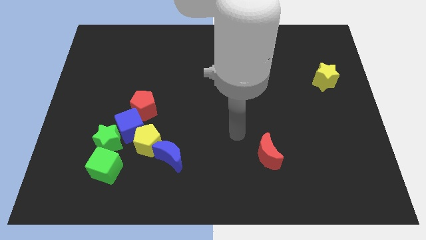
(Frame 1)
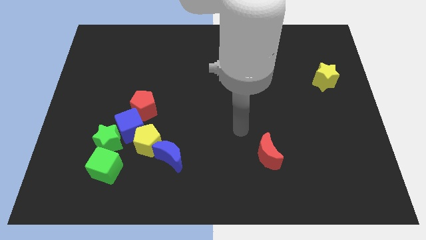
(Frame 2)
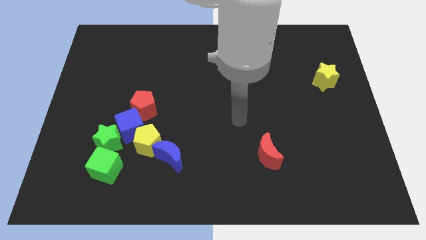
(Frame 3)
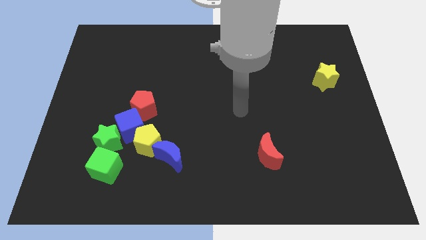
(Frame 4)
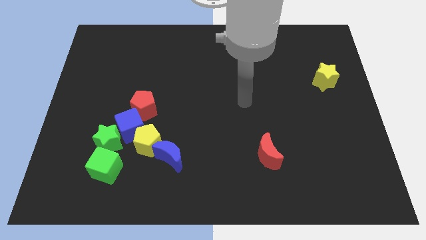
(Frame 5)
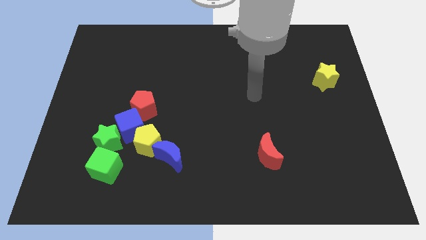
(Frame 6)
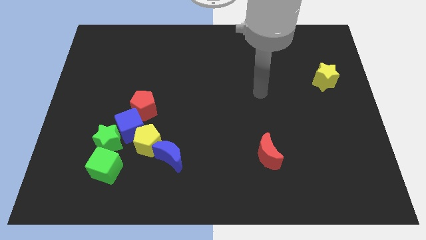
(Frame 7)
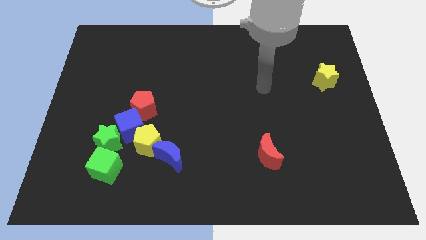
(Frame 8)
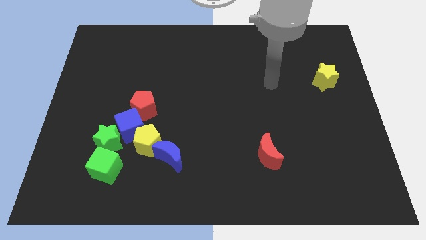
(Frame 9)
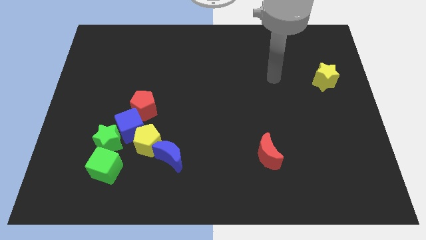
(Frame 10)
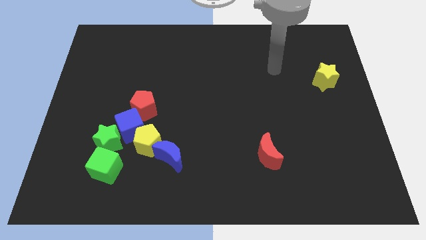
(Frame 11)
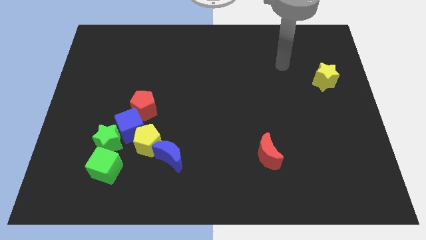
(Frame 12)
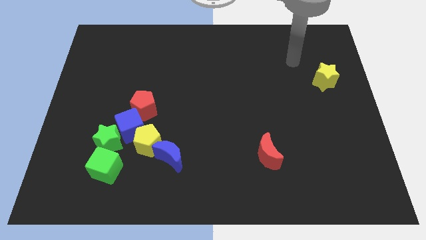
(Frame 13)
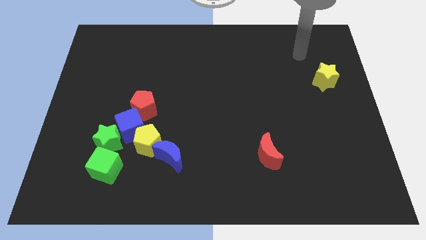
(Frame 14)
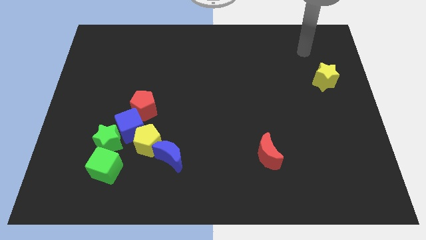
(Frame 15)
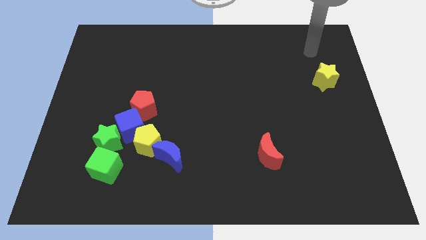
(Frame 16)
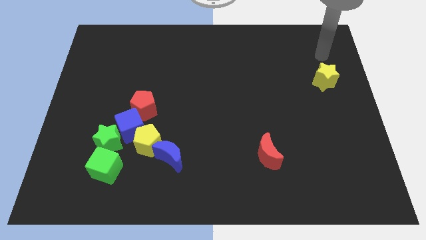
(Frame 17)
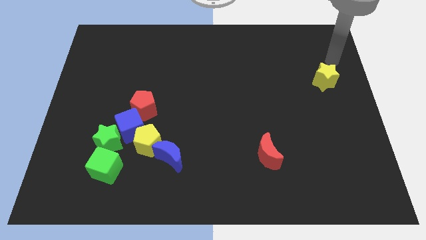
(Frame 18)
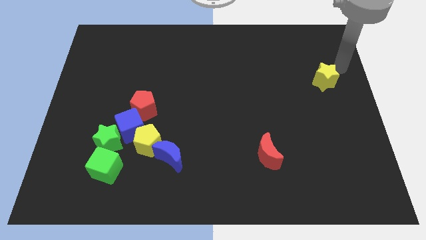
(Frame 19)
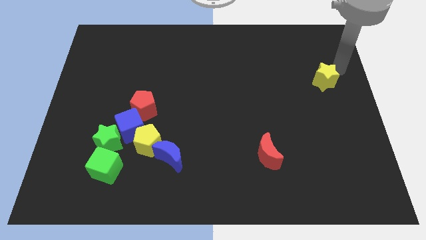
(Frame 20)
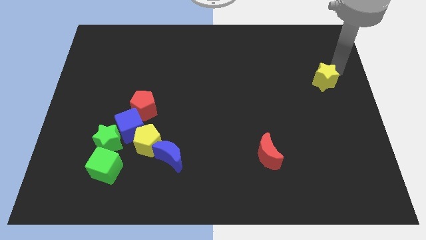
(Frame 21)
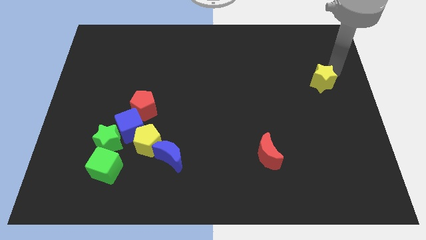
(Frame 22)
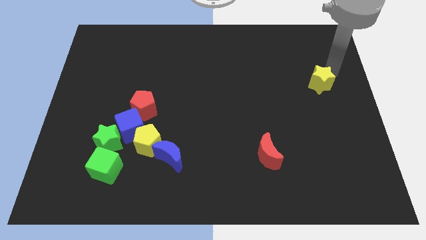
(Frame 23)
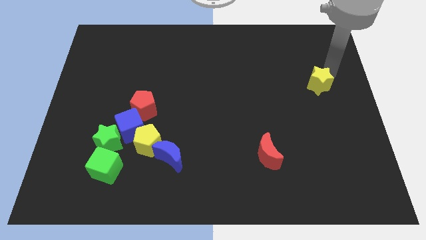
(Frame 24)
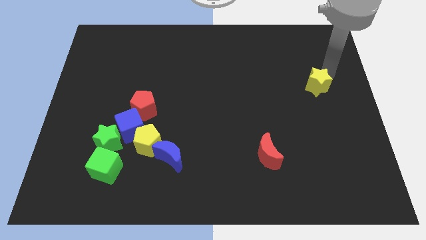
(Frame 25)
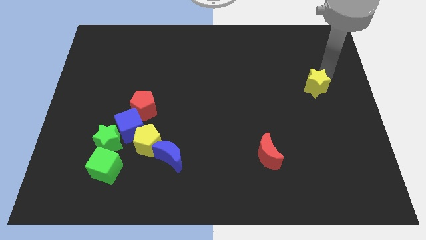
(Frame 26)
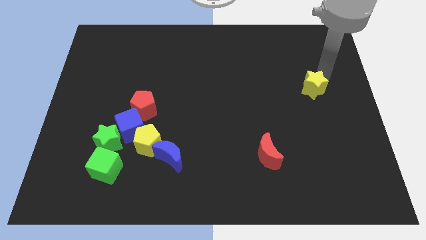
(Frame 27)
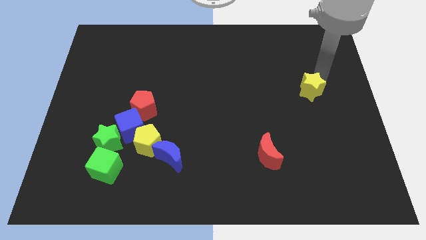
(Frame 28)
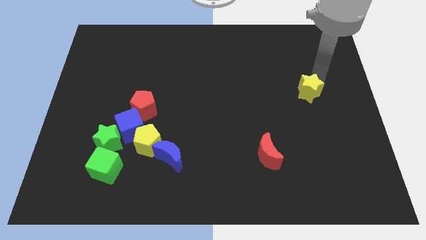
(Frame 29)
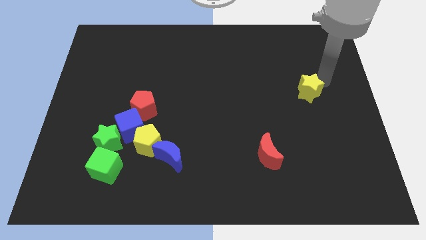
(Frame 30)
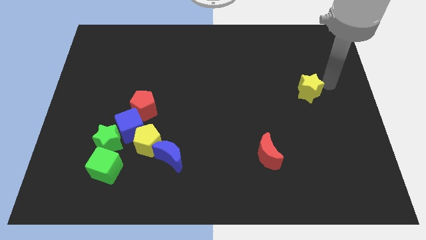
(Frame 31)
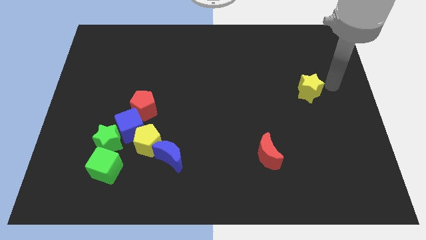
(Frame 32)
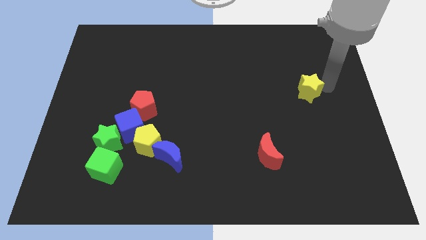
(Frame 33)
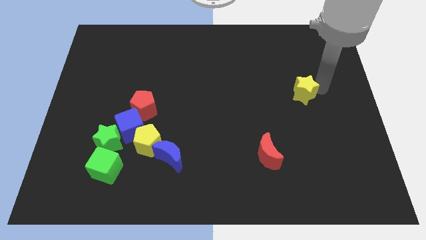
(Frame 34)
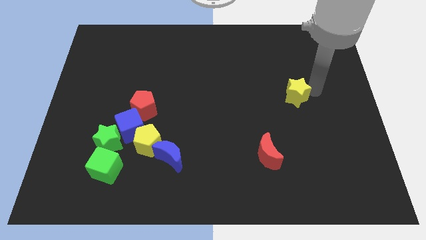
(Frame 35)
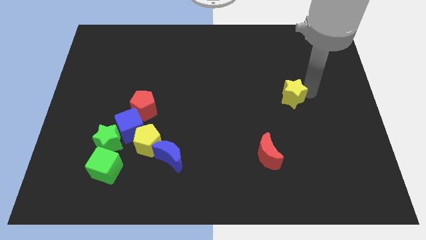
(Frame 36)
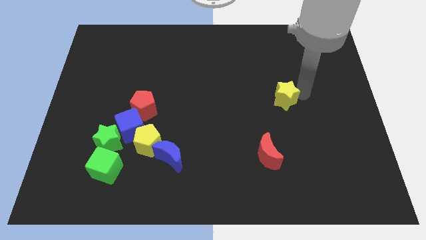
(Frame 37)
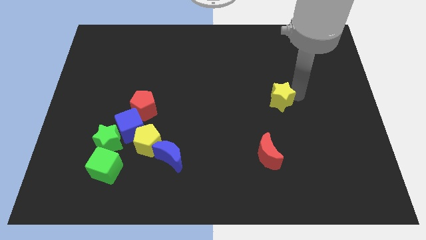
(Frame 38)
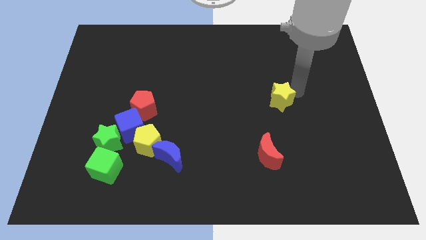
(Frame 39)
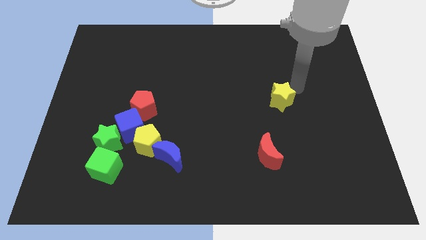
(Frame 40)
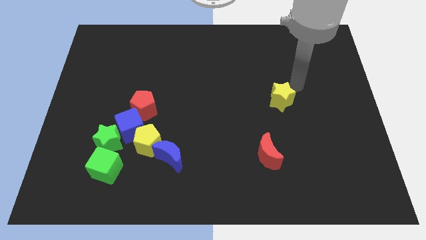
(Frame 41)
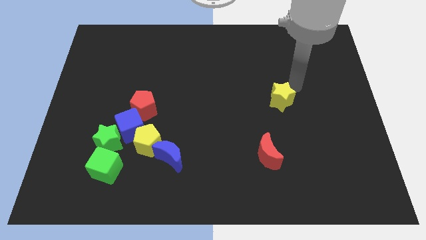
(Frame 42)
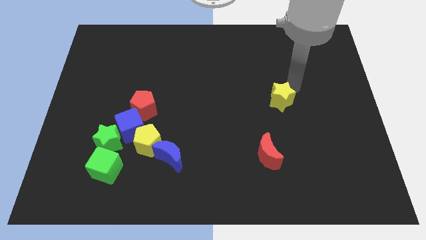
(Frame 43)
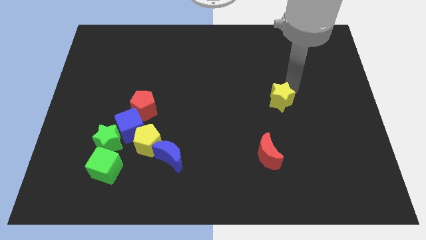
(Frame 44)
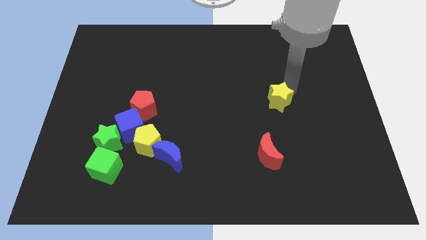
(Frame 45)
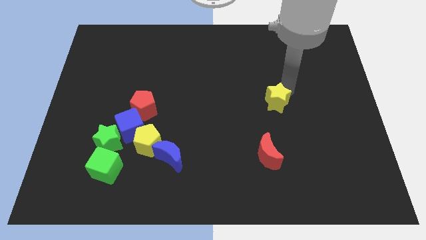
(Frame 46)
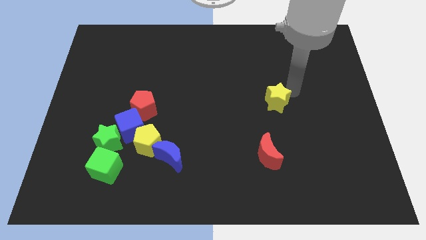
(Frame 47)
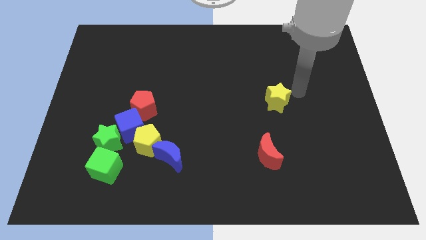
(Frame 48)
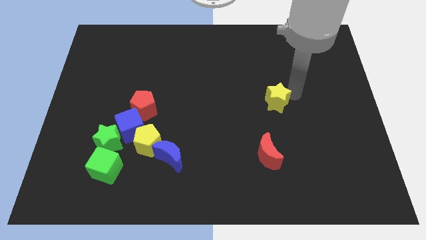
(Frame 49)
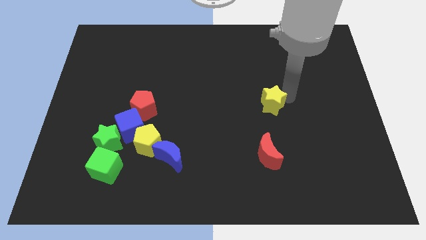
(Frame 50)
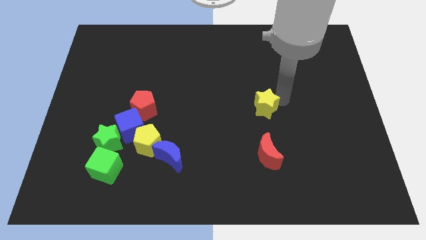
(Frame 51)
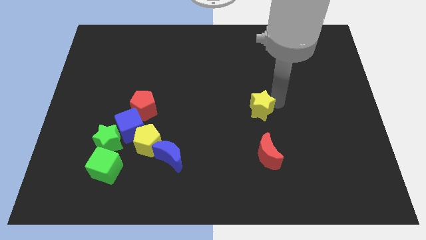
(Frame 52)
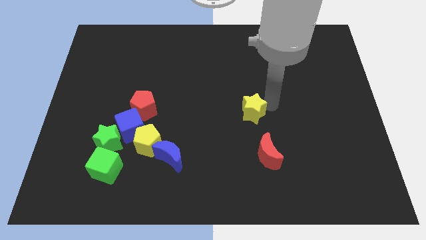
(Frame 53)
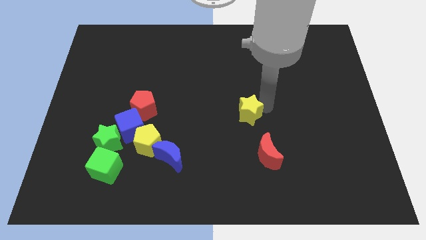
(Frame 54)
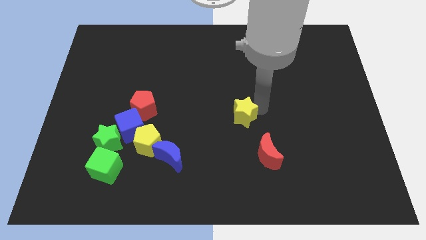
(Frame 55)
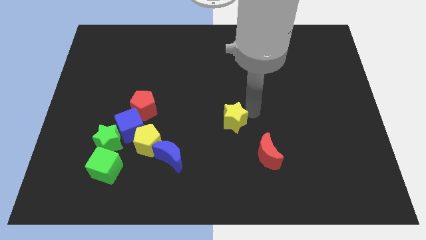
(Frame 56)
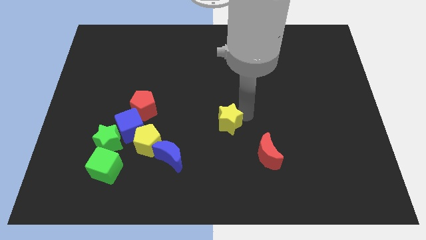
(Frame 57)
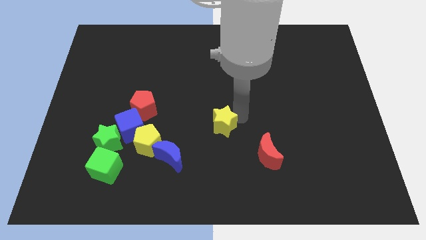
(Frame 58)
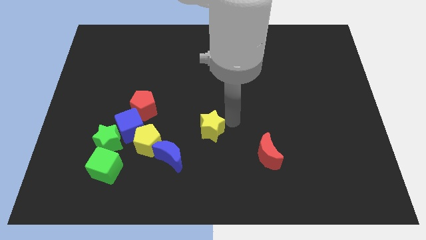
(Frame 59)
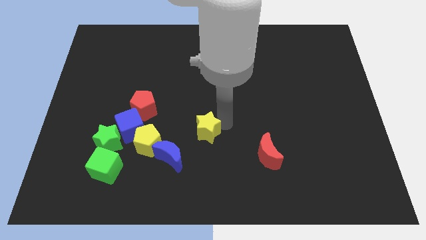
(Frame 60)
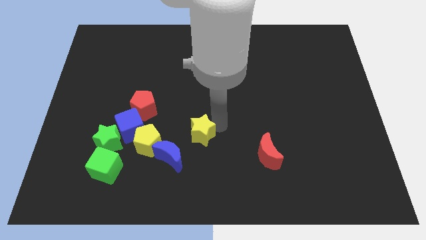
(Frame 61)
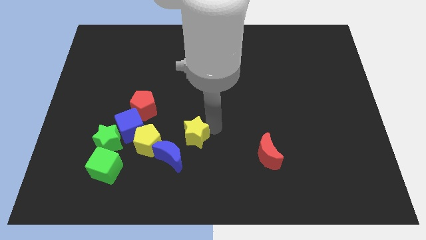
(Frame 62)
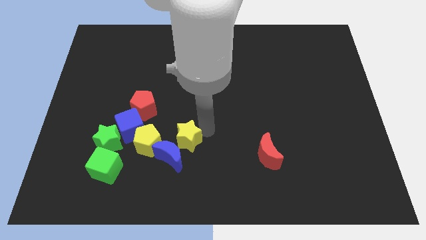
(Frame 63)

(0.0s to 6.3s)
push the yellow star towards the blue moon
